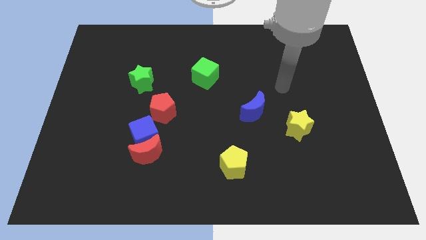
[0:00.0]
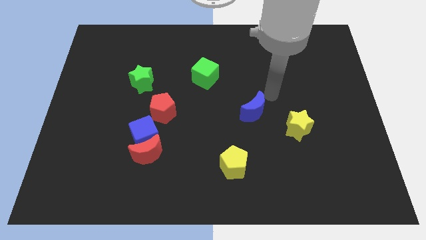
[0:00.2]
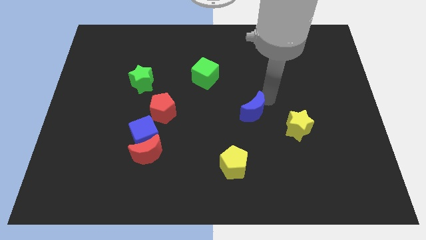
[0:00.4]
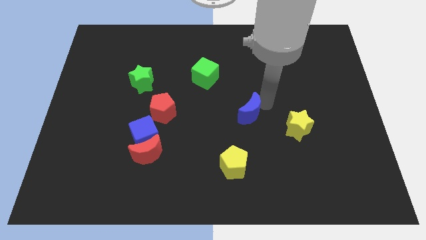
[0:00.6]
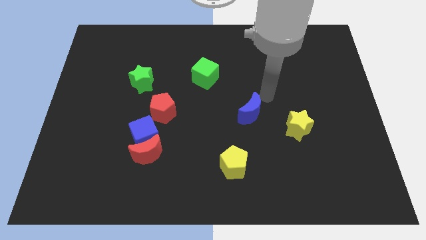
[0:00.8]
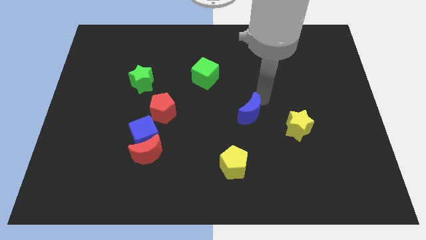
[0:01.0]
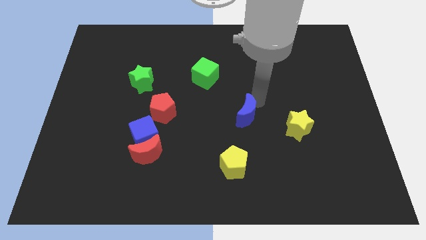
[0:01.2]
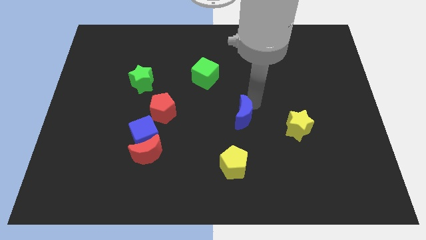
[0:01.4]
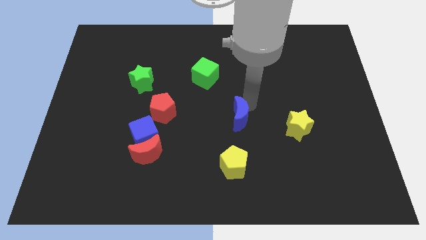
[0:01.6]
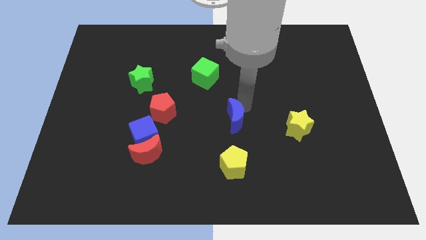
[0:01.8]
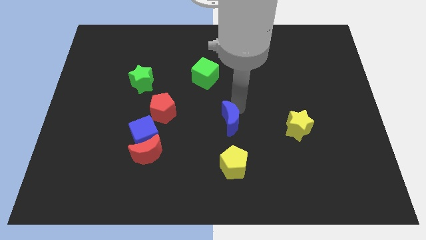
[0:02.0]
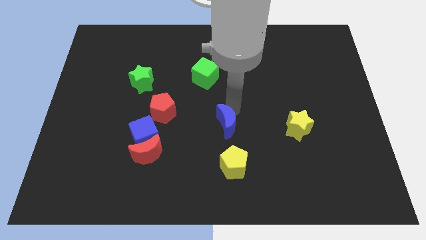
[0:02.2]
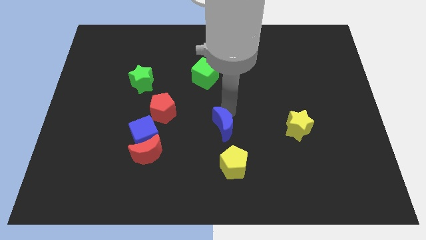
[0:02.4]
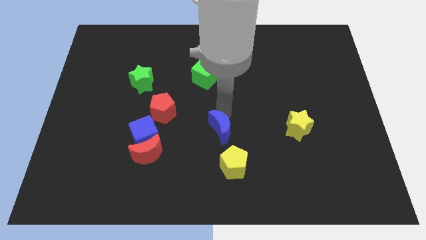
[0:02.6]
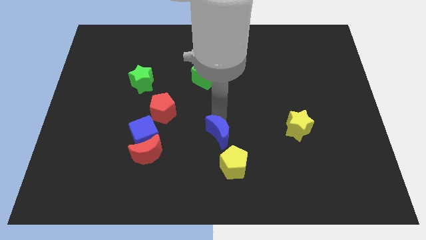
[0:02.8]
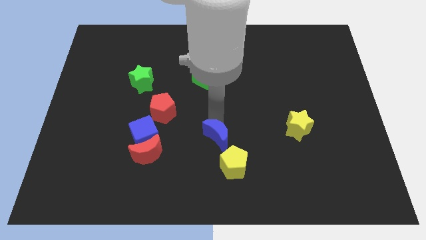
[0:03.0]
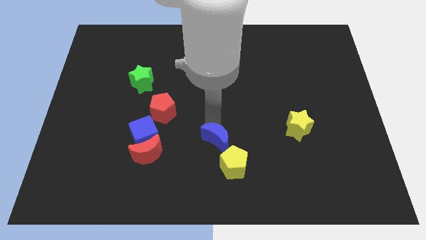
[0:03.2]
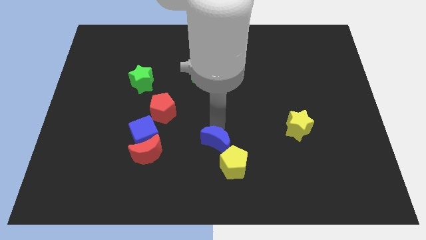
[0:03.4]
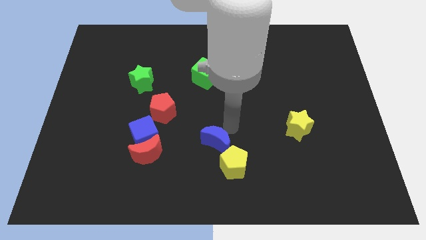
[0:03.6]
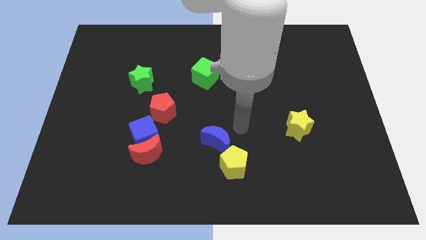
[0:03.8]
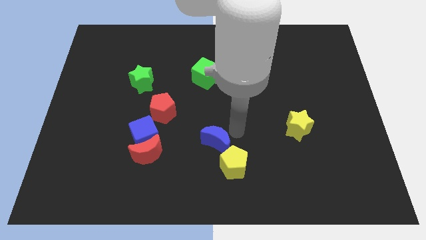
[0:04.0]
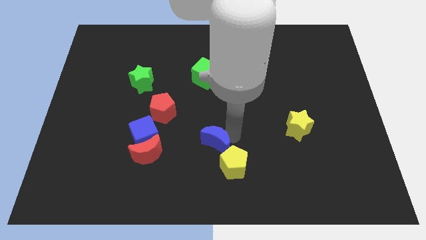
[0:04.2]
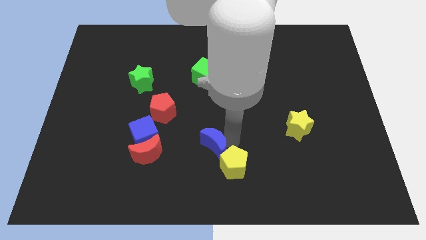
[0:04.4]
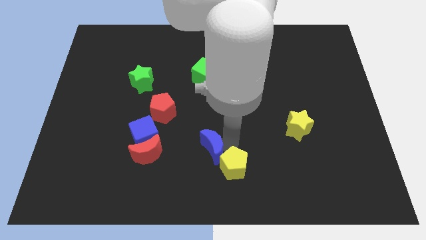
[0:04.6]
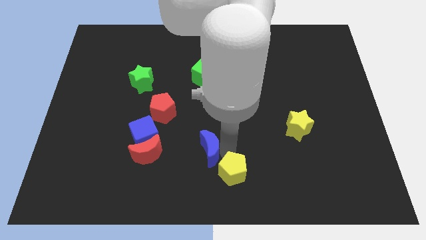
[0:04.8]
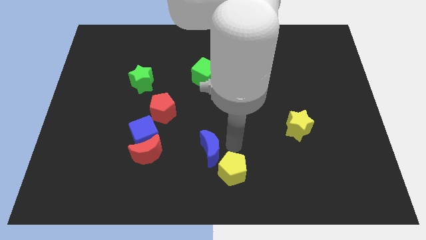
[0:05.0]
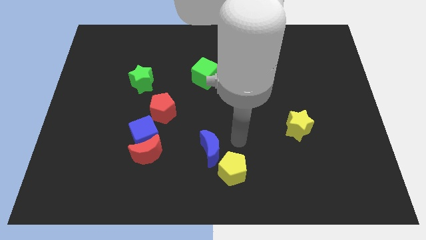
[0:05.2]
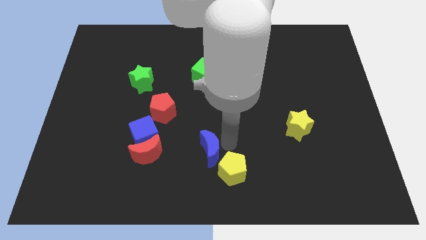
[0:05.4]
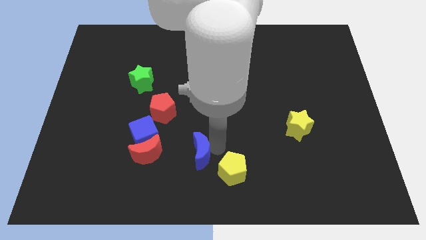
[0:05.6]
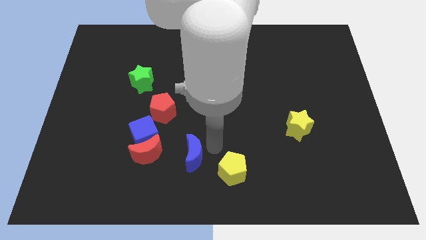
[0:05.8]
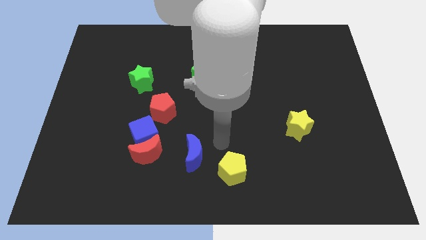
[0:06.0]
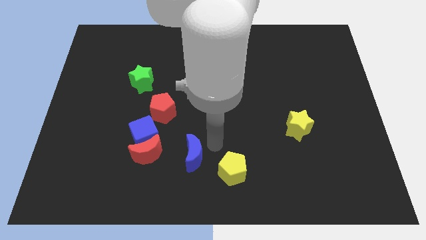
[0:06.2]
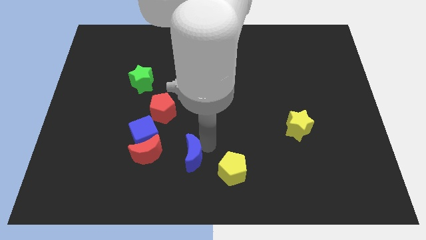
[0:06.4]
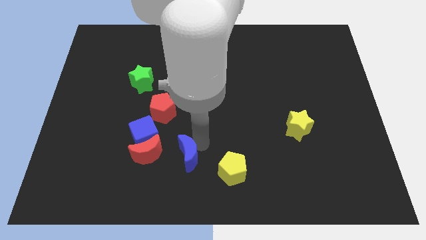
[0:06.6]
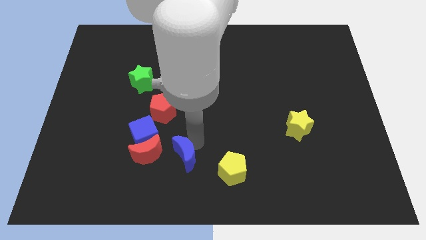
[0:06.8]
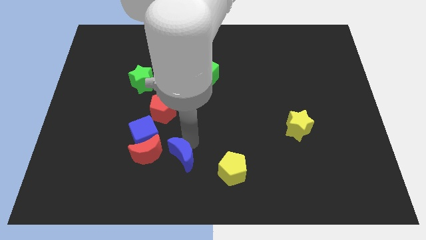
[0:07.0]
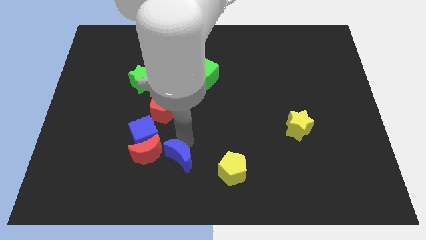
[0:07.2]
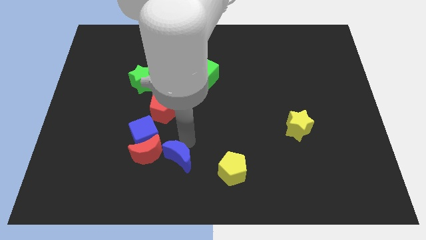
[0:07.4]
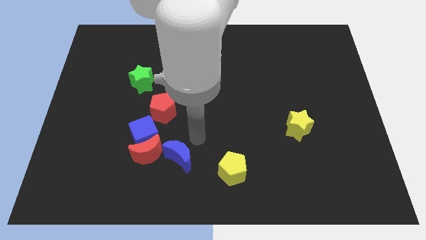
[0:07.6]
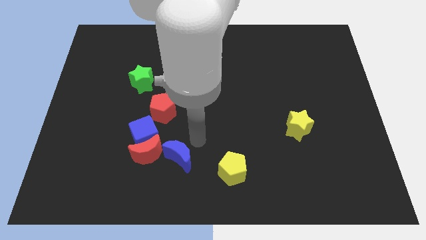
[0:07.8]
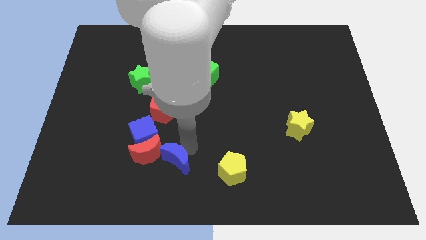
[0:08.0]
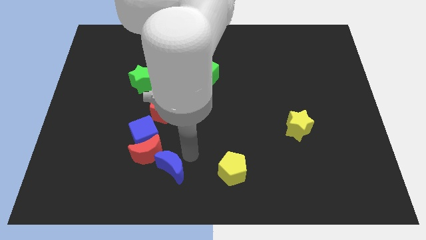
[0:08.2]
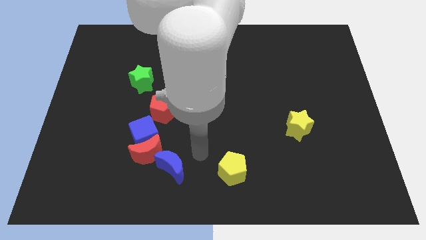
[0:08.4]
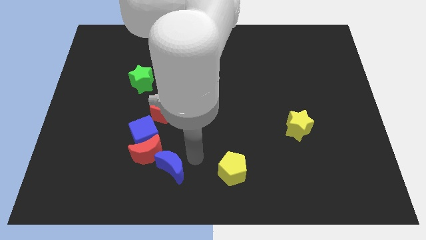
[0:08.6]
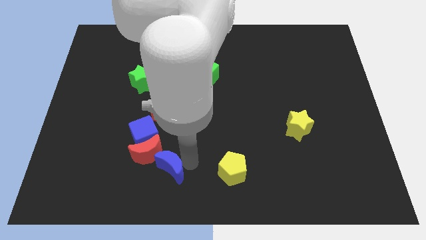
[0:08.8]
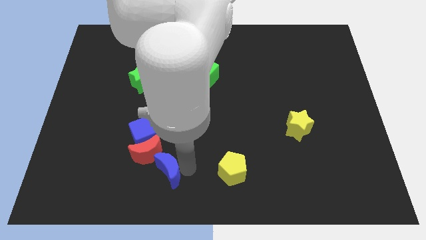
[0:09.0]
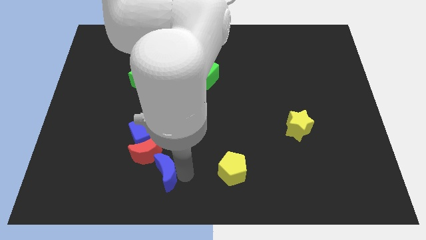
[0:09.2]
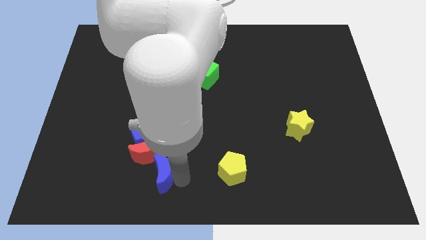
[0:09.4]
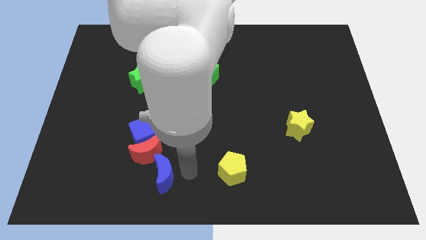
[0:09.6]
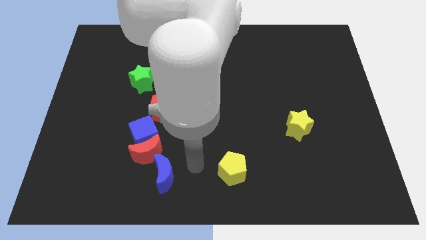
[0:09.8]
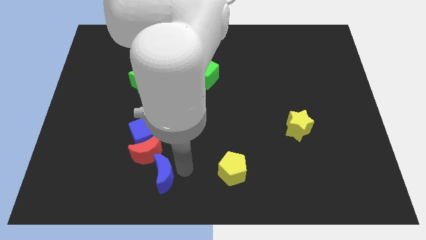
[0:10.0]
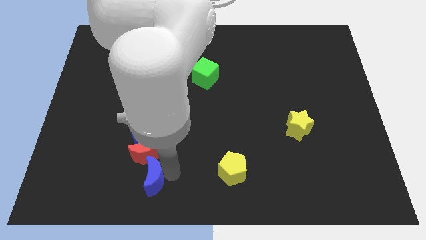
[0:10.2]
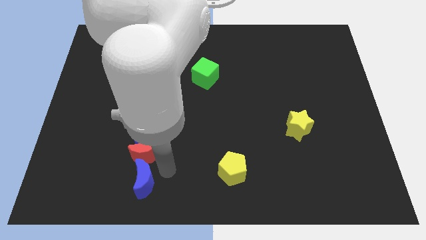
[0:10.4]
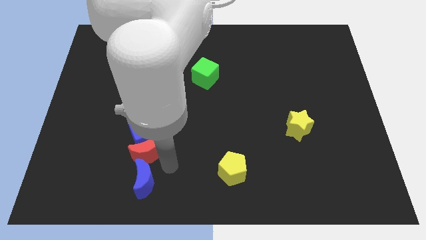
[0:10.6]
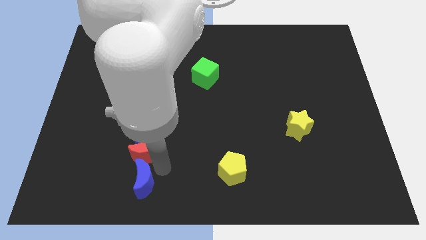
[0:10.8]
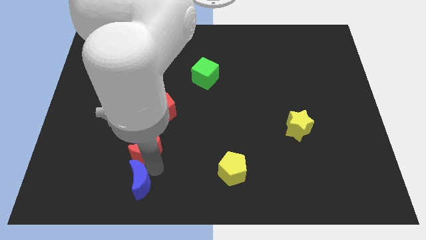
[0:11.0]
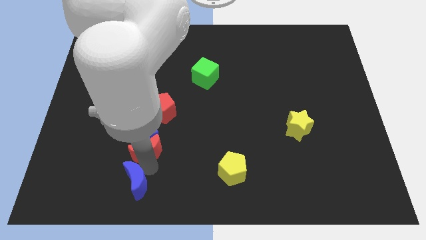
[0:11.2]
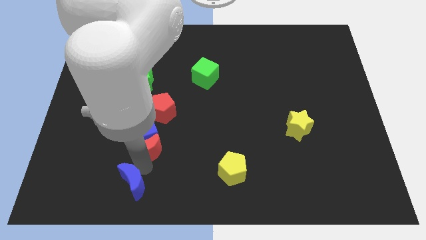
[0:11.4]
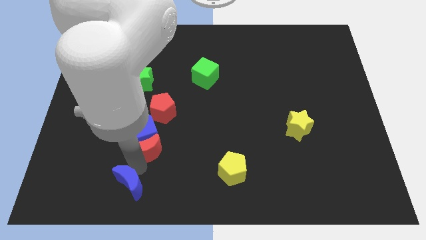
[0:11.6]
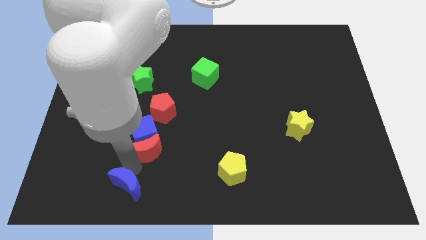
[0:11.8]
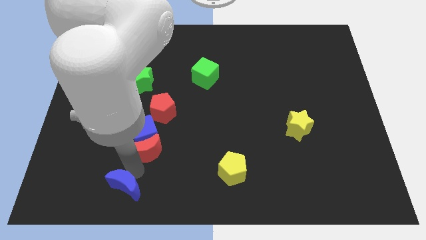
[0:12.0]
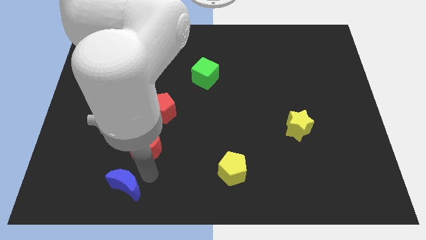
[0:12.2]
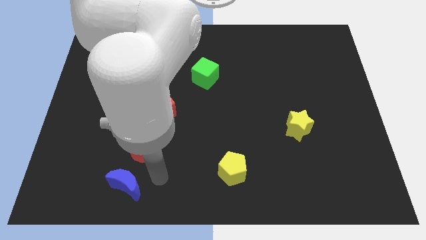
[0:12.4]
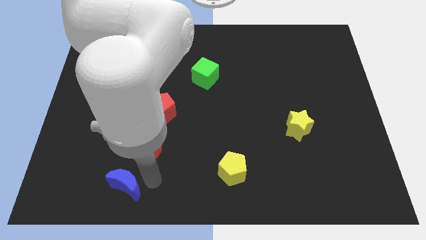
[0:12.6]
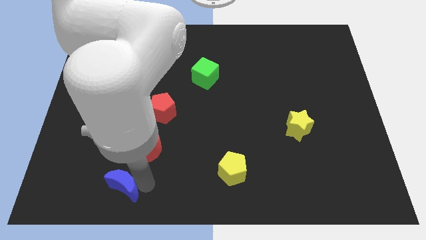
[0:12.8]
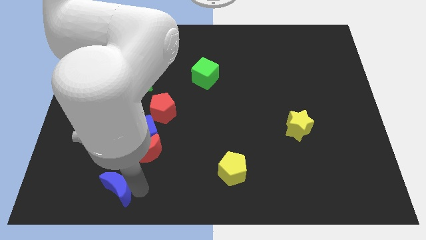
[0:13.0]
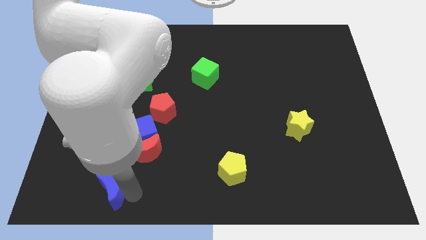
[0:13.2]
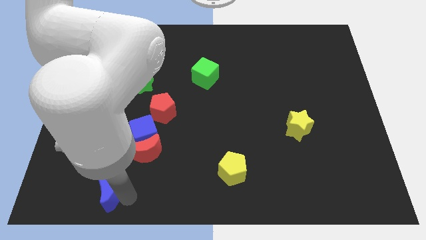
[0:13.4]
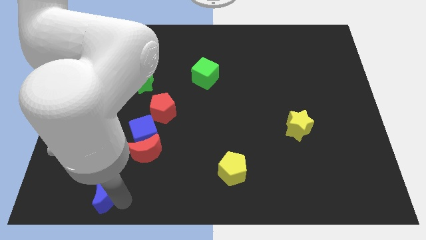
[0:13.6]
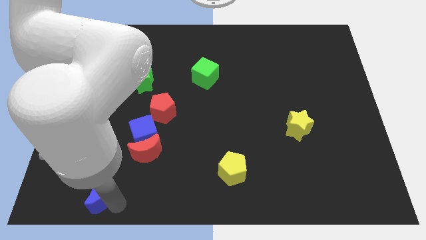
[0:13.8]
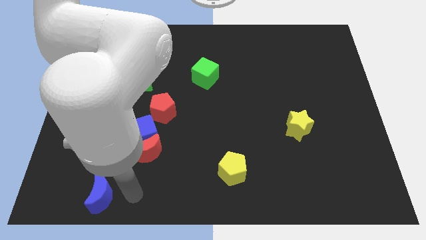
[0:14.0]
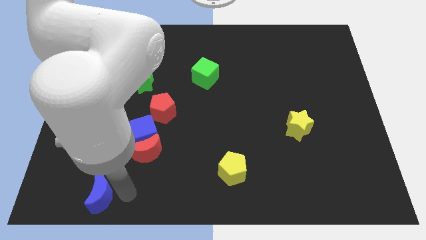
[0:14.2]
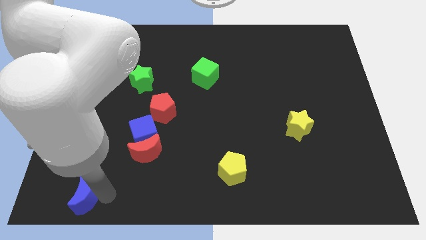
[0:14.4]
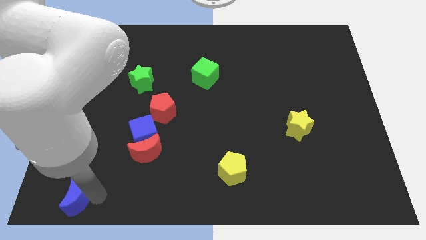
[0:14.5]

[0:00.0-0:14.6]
move the blue moon to the bottom left
